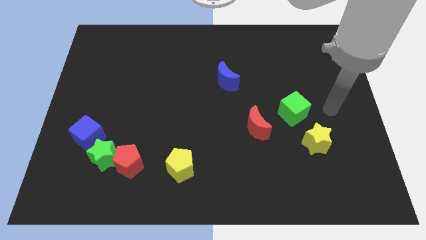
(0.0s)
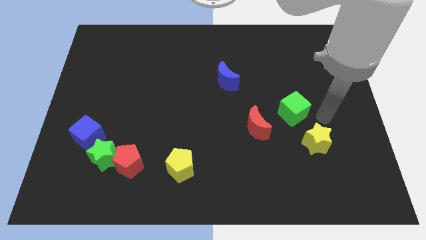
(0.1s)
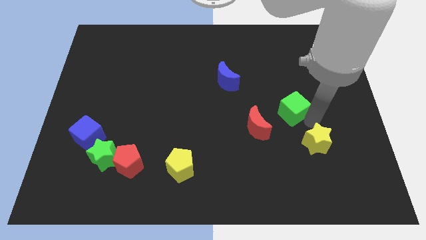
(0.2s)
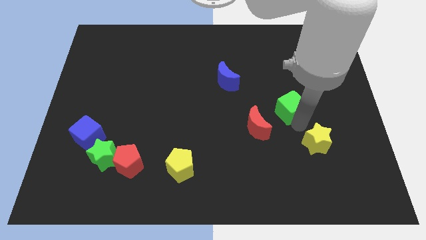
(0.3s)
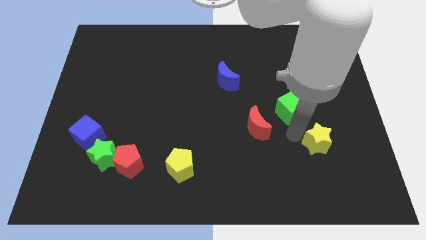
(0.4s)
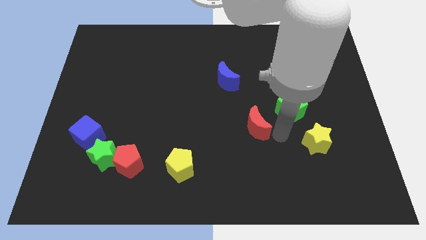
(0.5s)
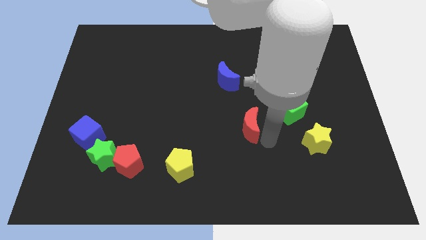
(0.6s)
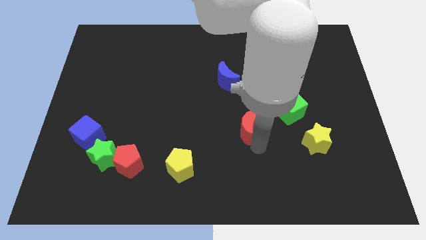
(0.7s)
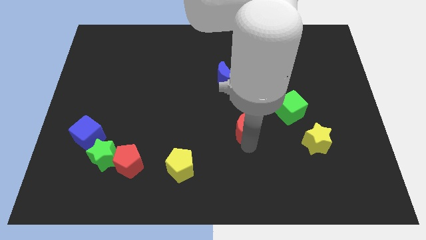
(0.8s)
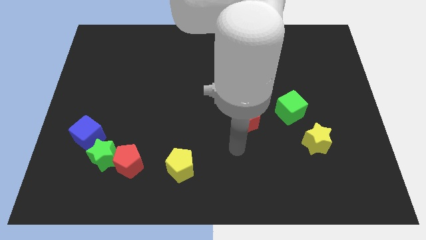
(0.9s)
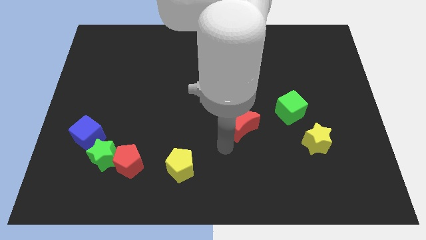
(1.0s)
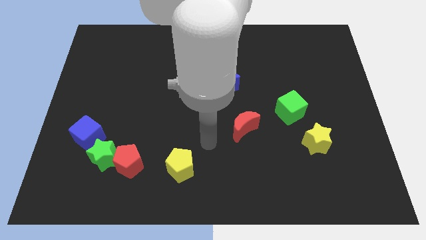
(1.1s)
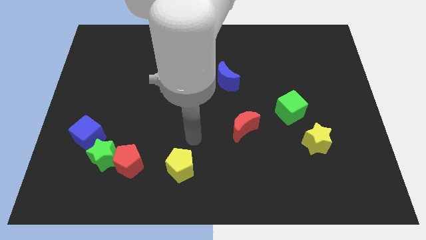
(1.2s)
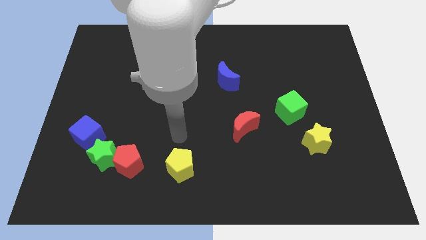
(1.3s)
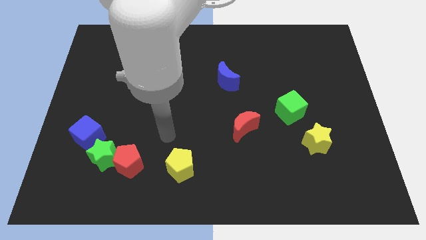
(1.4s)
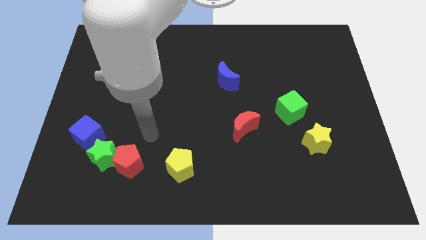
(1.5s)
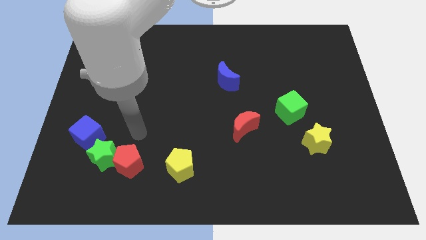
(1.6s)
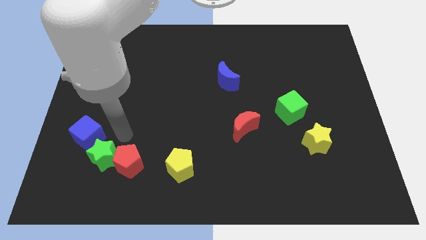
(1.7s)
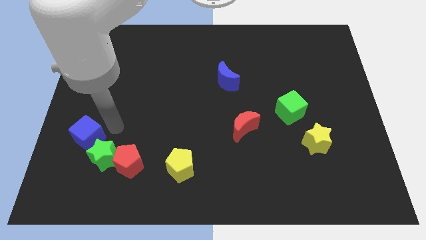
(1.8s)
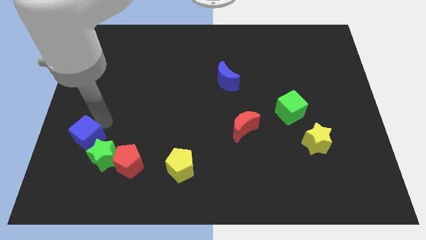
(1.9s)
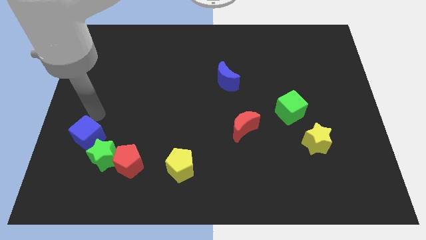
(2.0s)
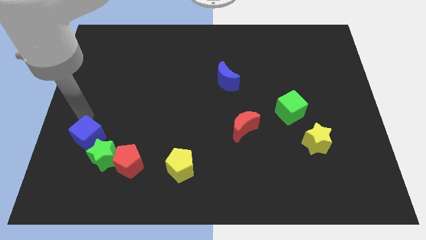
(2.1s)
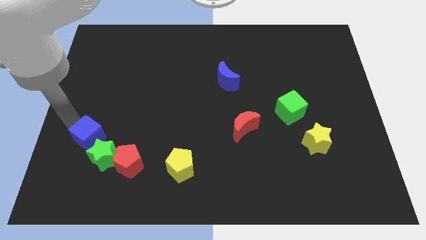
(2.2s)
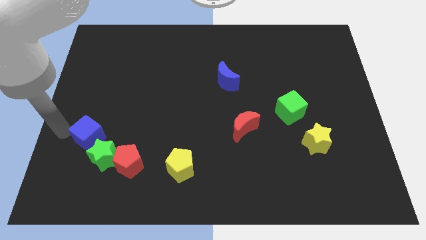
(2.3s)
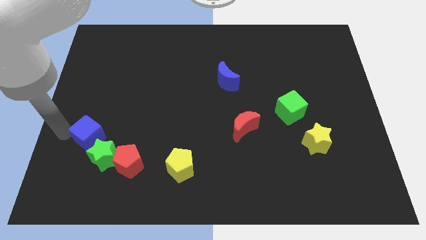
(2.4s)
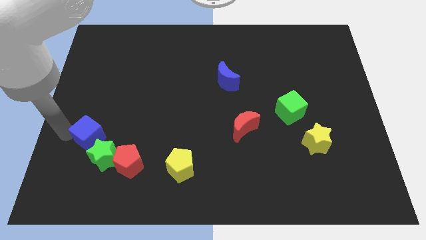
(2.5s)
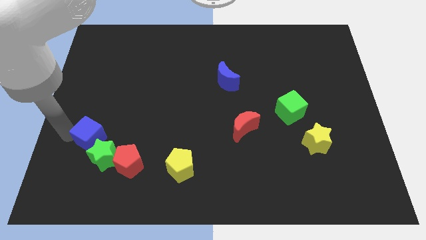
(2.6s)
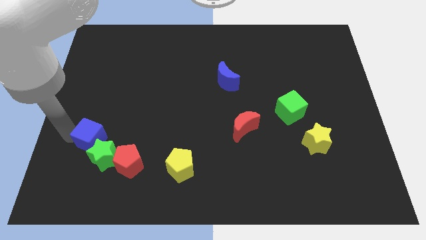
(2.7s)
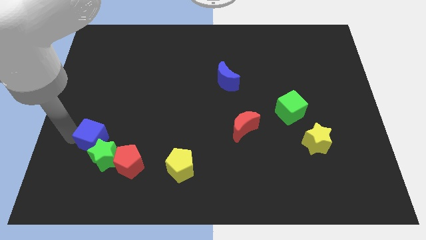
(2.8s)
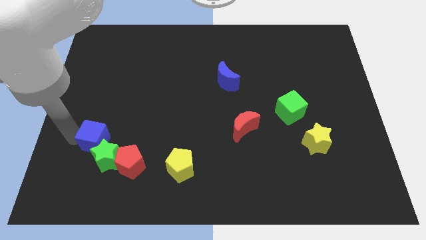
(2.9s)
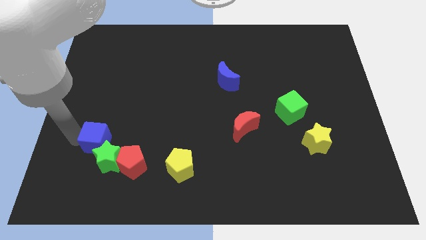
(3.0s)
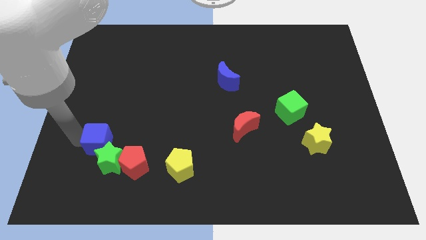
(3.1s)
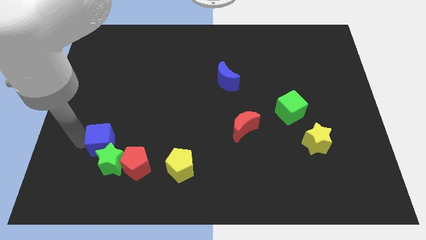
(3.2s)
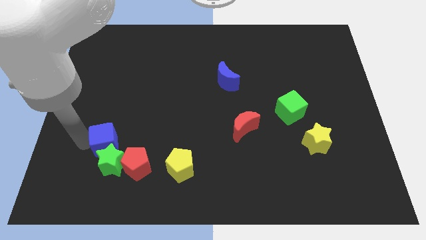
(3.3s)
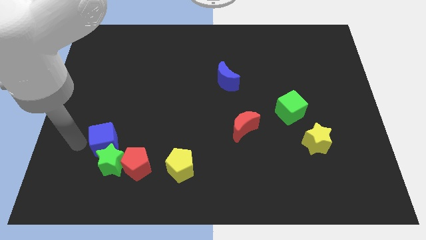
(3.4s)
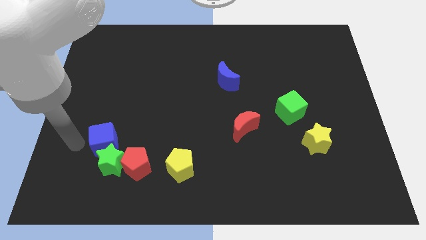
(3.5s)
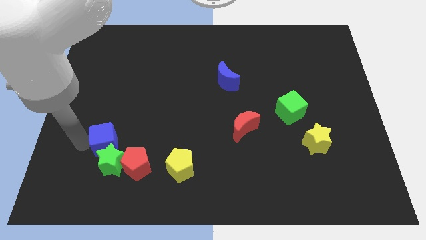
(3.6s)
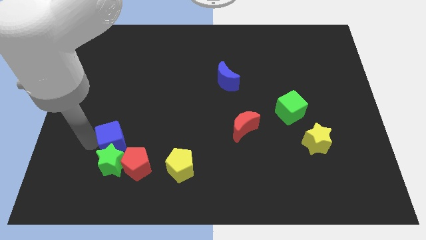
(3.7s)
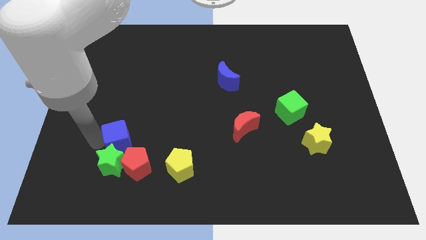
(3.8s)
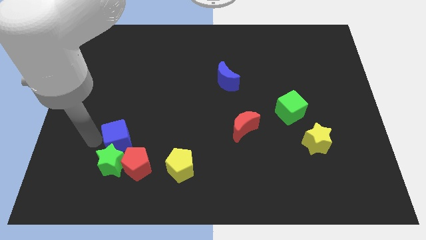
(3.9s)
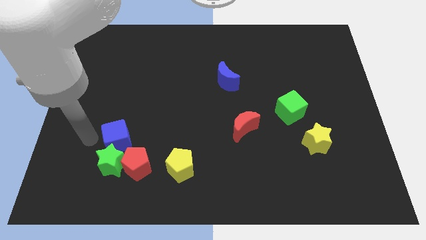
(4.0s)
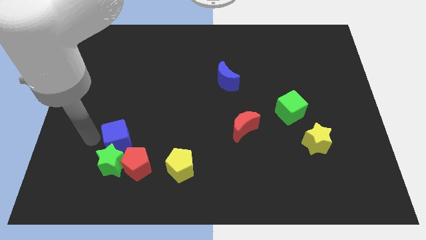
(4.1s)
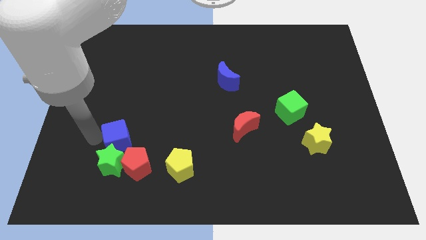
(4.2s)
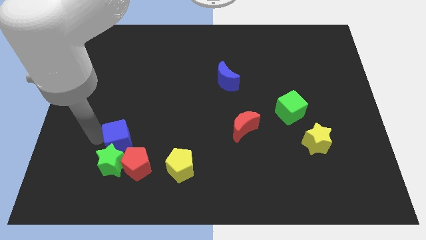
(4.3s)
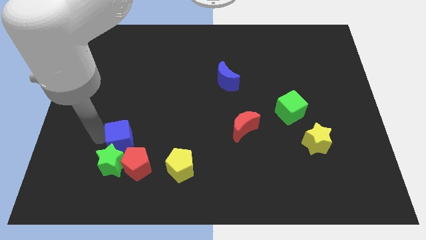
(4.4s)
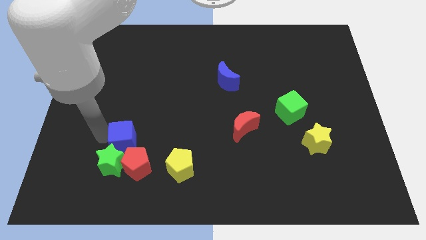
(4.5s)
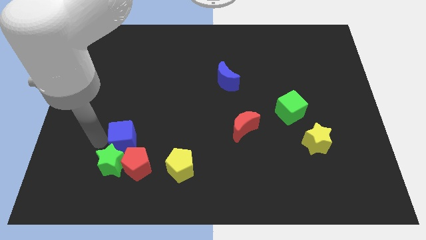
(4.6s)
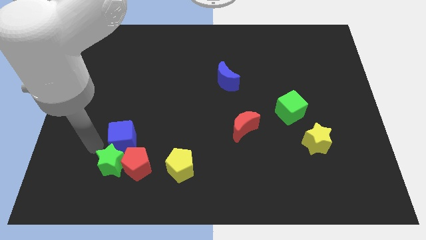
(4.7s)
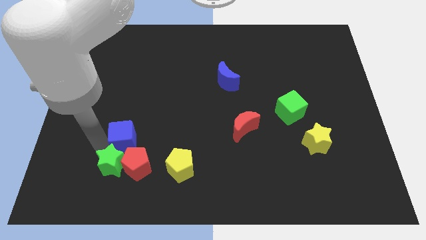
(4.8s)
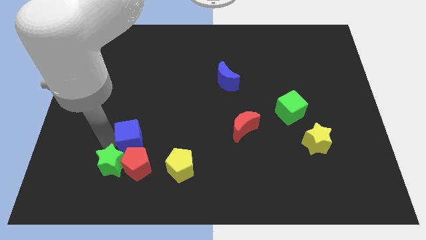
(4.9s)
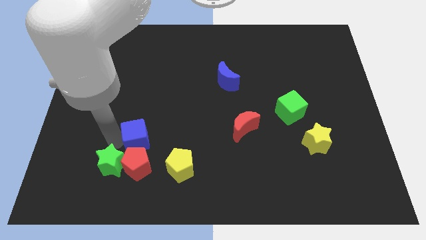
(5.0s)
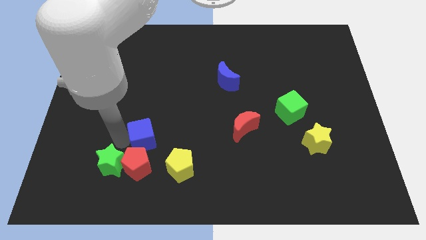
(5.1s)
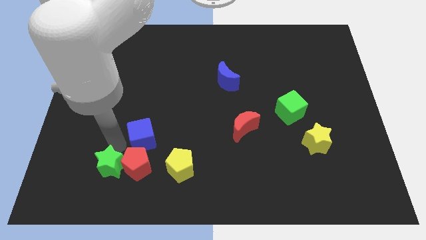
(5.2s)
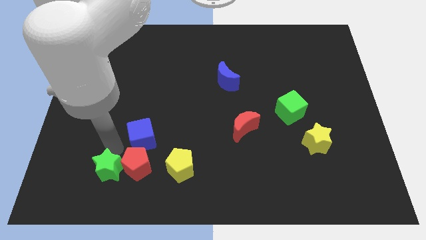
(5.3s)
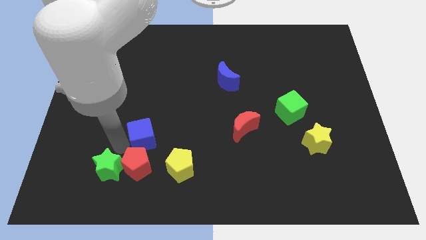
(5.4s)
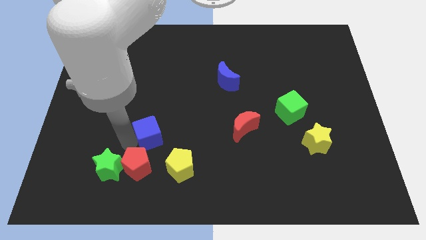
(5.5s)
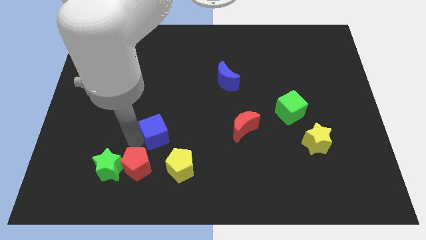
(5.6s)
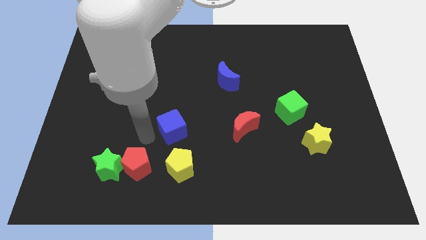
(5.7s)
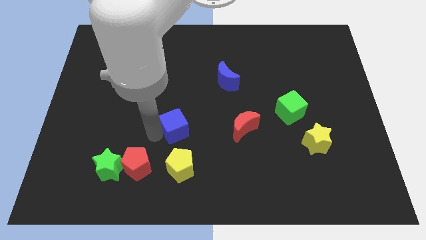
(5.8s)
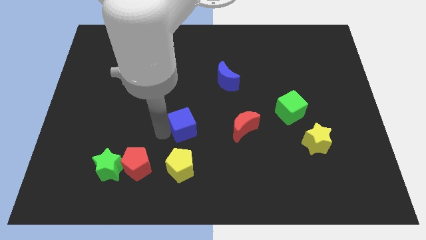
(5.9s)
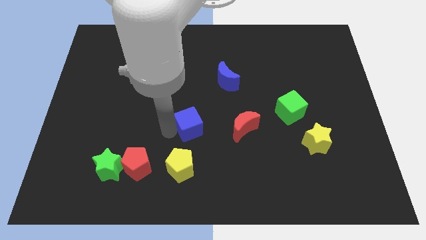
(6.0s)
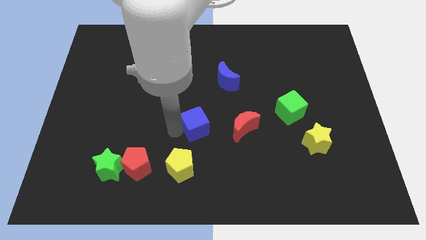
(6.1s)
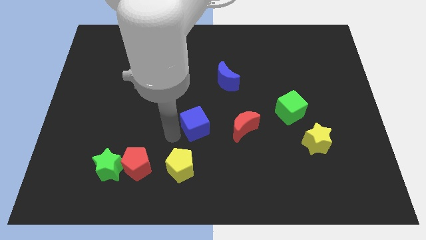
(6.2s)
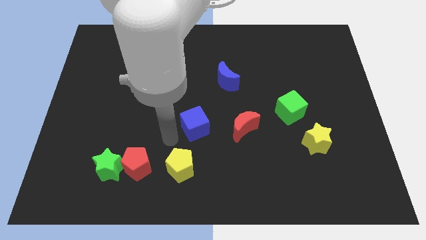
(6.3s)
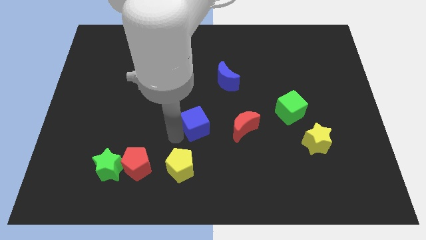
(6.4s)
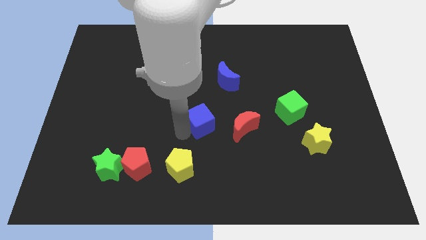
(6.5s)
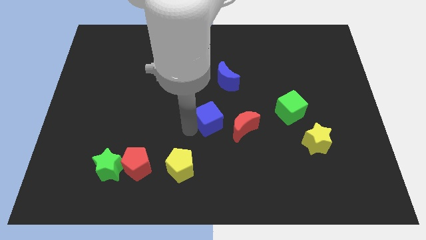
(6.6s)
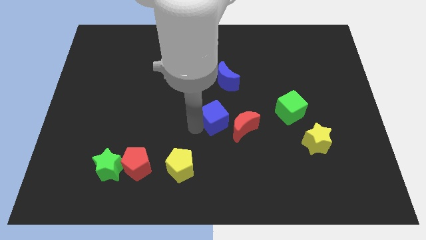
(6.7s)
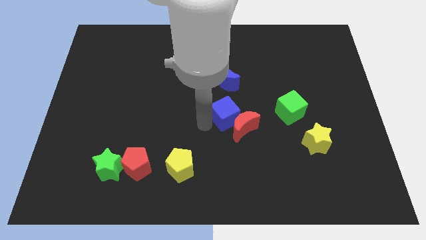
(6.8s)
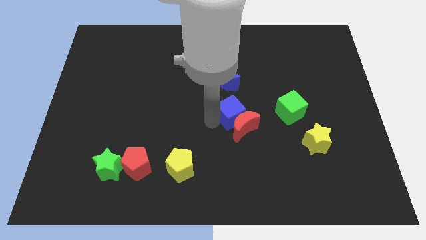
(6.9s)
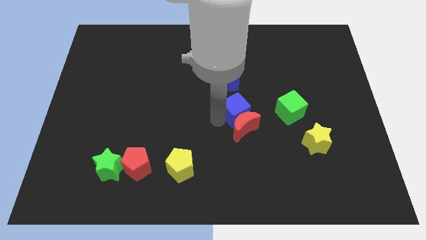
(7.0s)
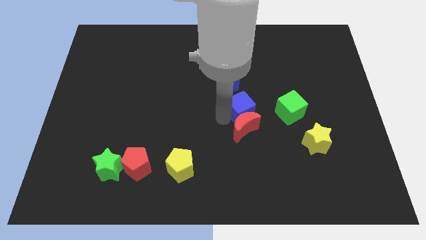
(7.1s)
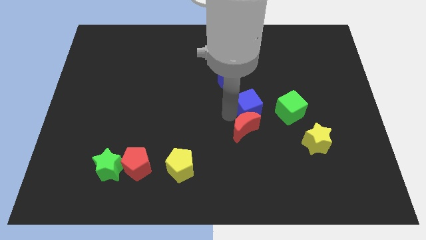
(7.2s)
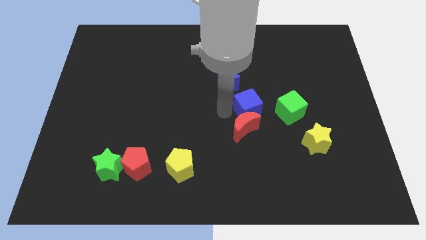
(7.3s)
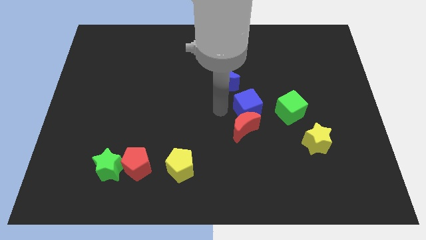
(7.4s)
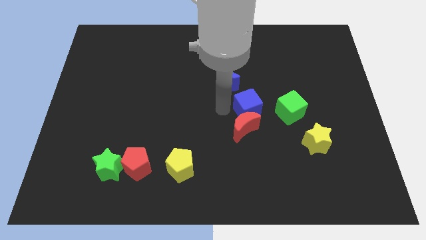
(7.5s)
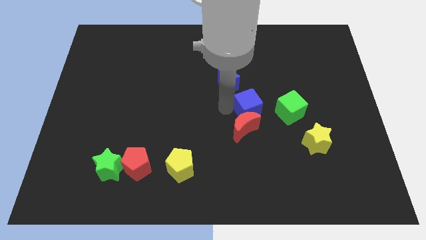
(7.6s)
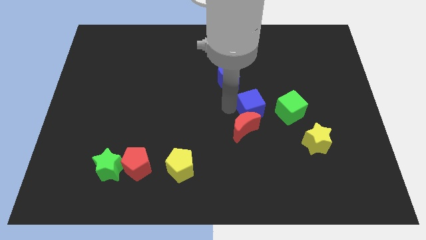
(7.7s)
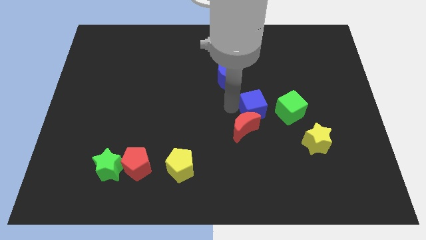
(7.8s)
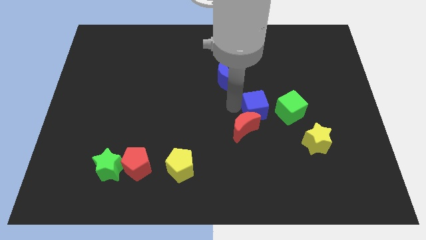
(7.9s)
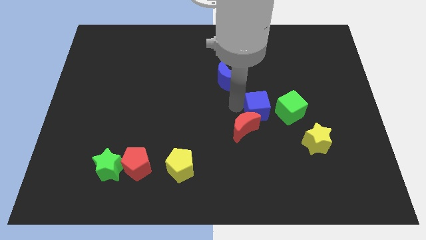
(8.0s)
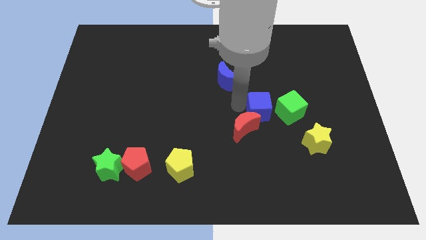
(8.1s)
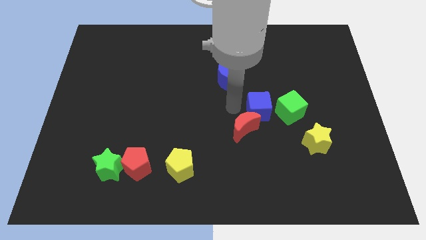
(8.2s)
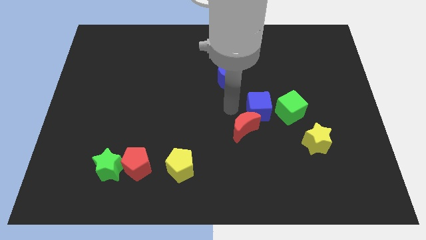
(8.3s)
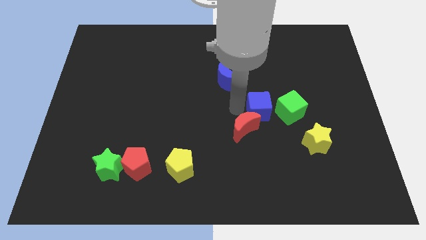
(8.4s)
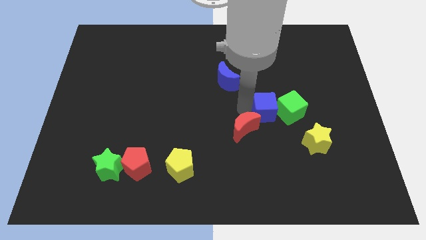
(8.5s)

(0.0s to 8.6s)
put the blue cube next to the green cube

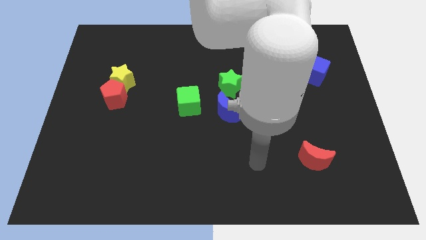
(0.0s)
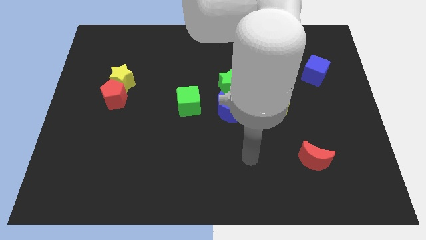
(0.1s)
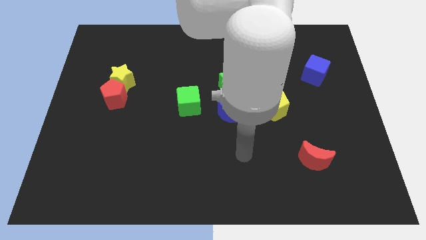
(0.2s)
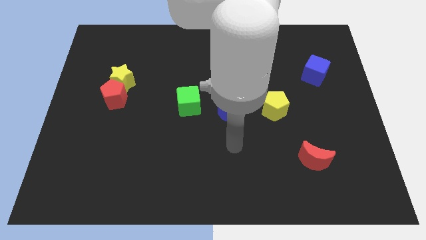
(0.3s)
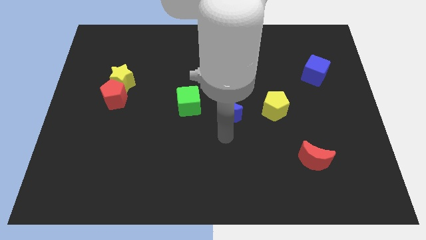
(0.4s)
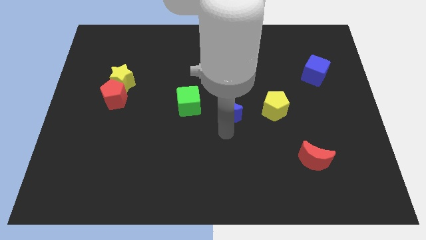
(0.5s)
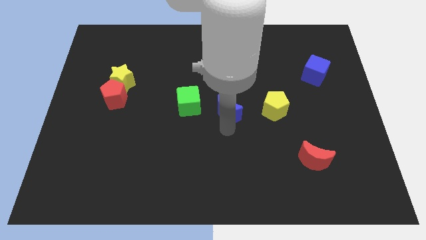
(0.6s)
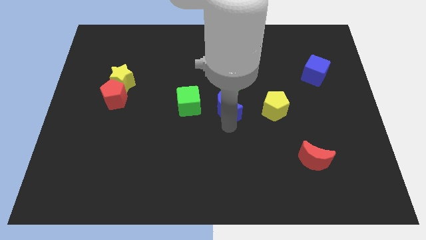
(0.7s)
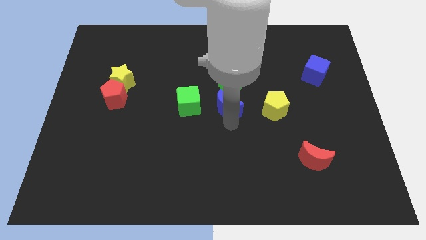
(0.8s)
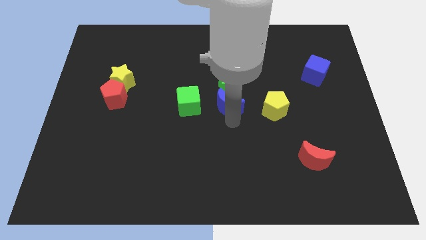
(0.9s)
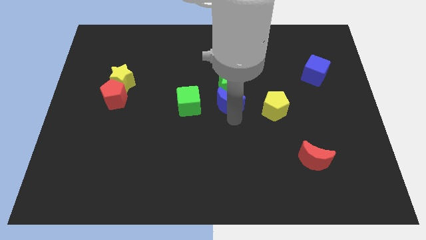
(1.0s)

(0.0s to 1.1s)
move the blue moon towards the green star
